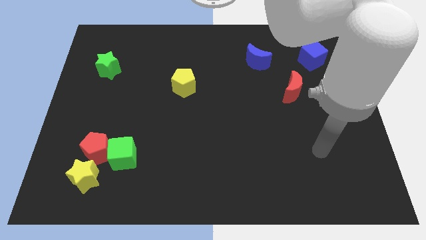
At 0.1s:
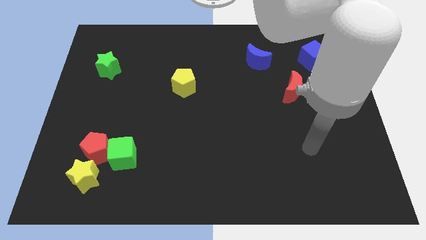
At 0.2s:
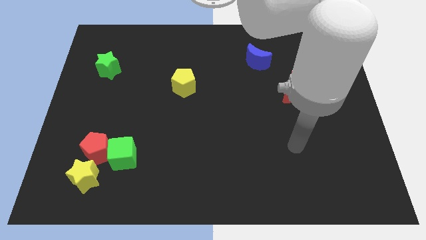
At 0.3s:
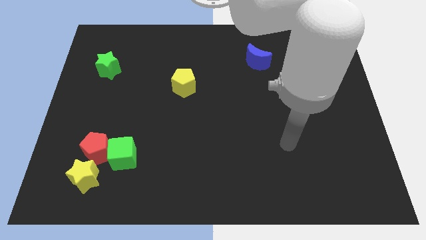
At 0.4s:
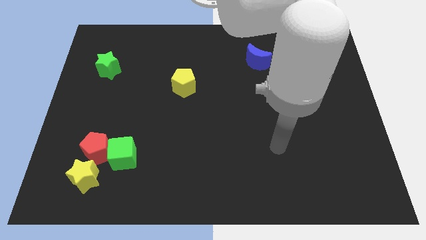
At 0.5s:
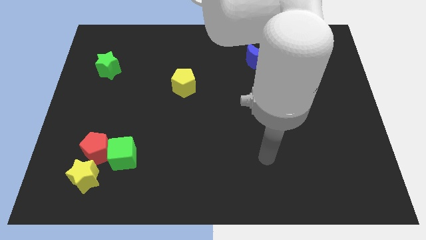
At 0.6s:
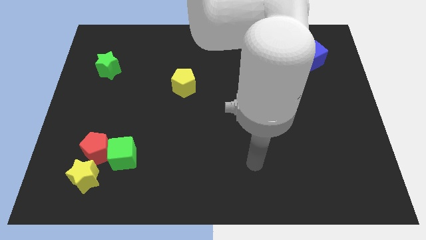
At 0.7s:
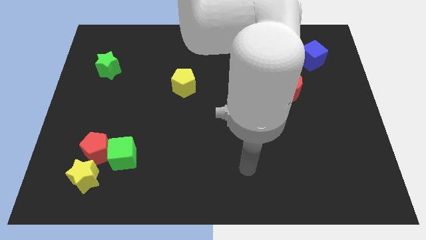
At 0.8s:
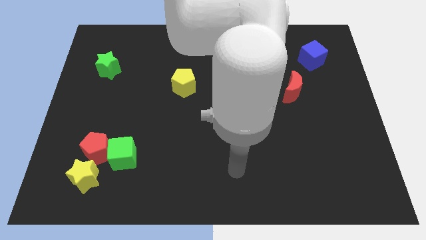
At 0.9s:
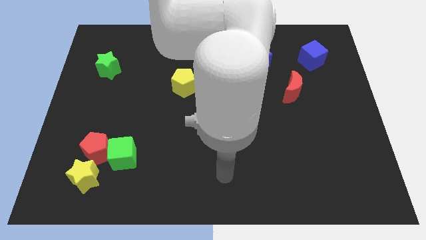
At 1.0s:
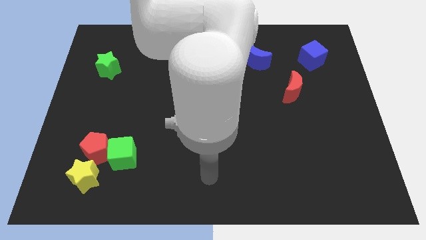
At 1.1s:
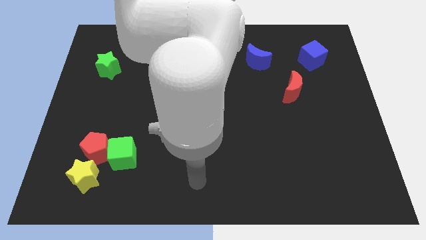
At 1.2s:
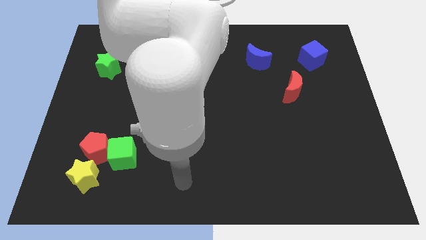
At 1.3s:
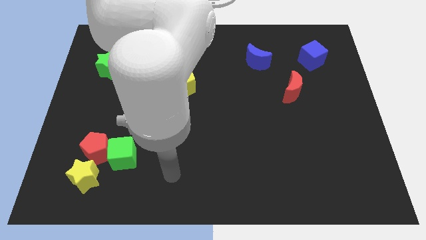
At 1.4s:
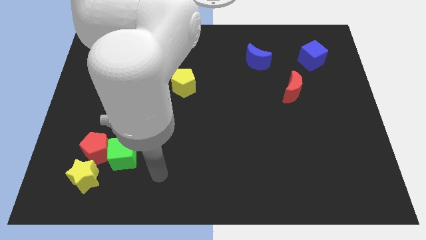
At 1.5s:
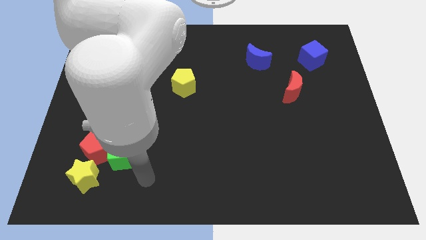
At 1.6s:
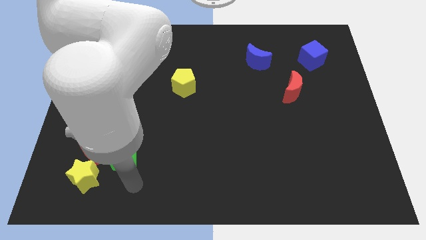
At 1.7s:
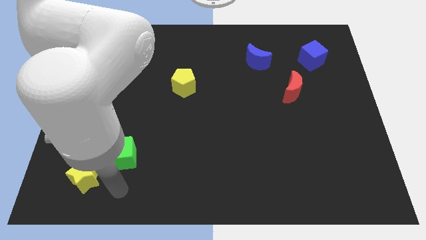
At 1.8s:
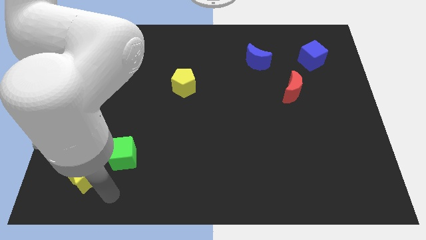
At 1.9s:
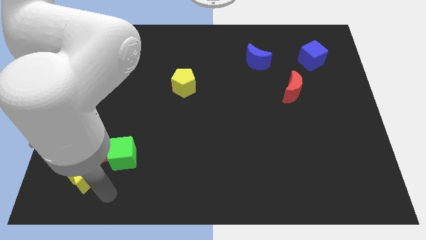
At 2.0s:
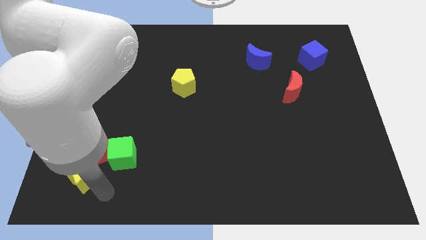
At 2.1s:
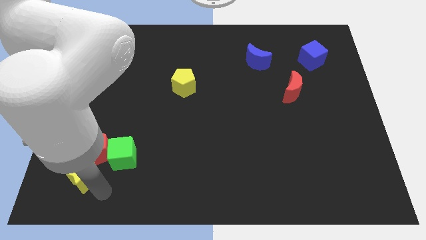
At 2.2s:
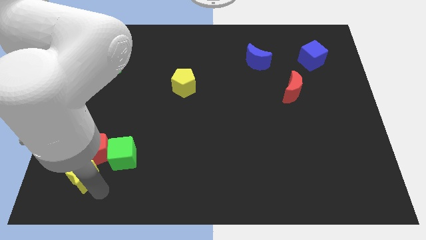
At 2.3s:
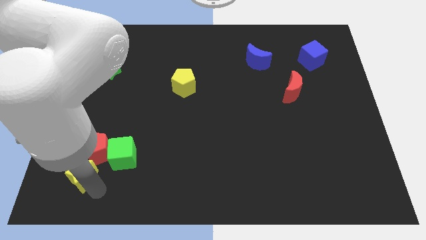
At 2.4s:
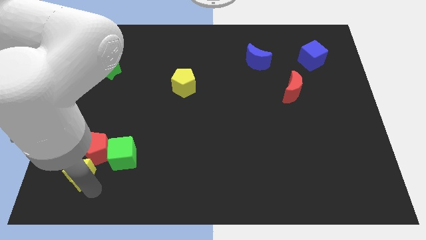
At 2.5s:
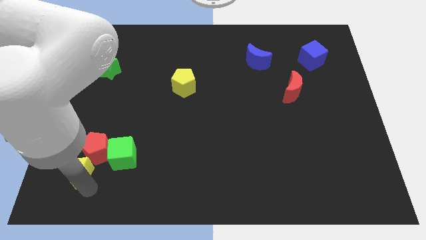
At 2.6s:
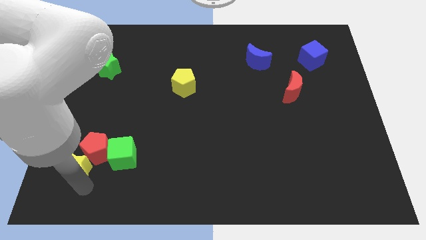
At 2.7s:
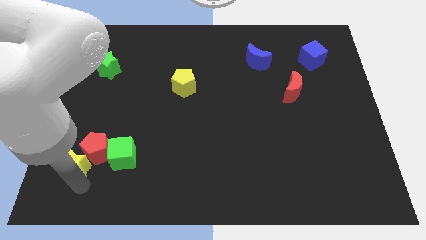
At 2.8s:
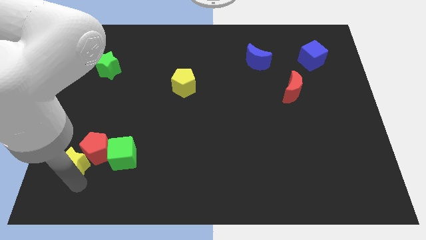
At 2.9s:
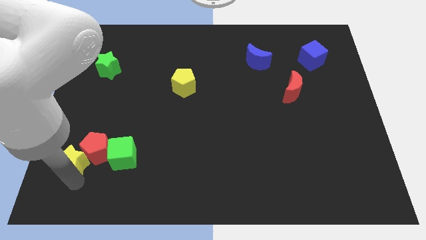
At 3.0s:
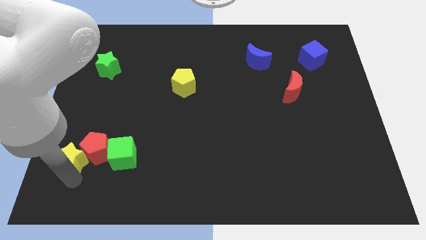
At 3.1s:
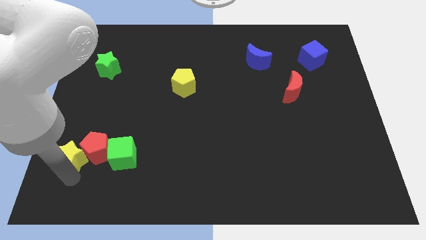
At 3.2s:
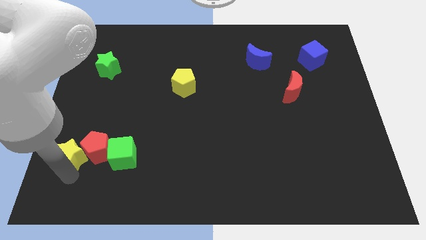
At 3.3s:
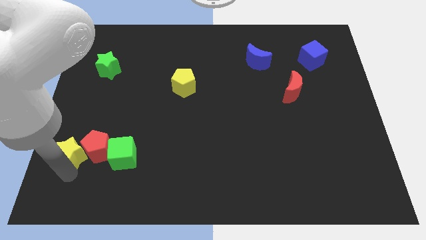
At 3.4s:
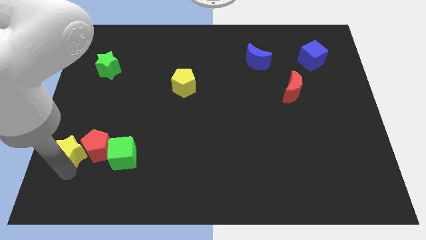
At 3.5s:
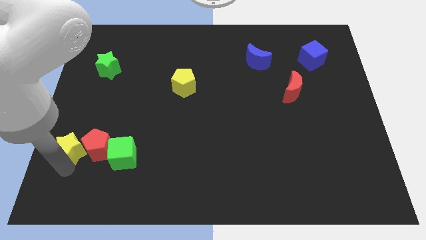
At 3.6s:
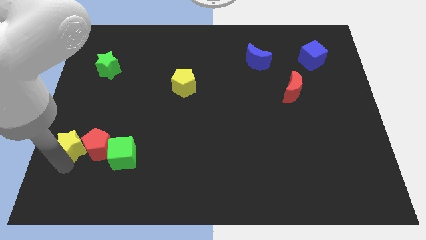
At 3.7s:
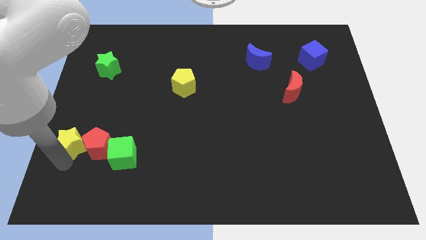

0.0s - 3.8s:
slightly move the yellow star up

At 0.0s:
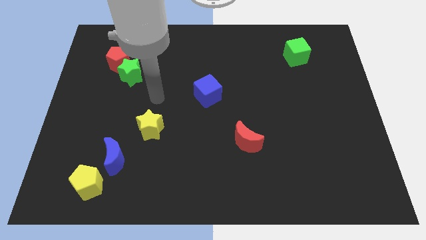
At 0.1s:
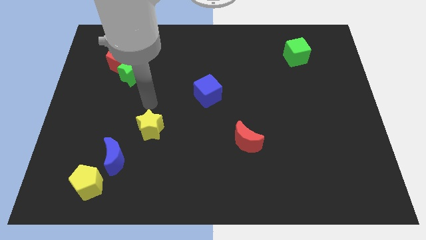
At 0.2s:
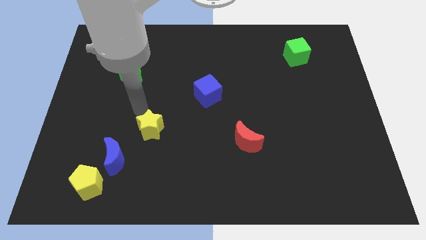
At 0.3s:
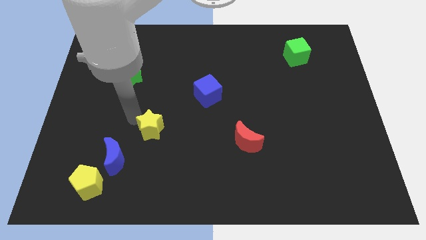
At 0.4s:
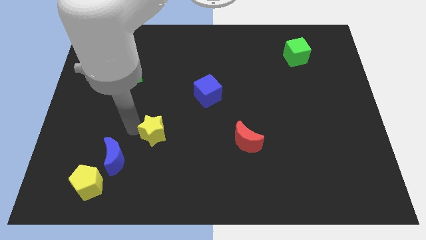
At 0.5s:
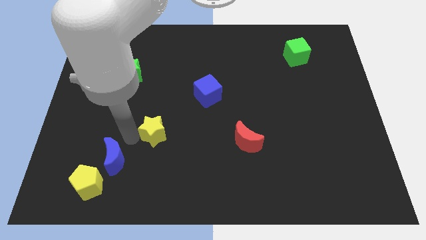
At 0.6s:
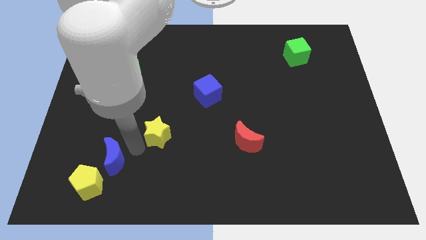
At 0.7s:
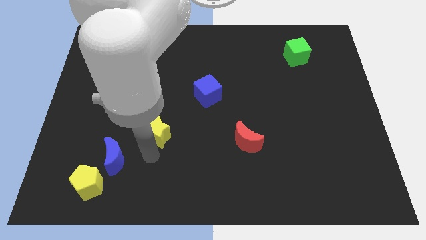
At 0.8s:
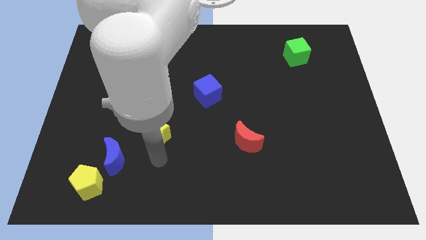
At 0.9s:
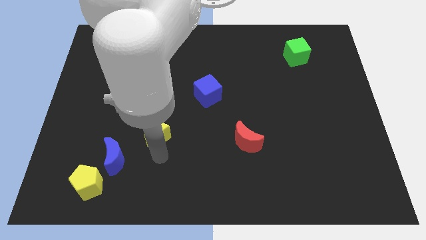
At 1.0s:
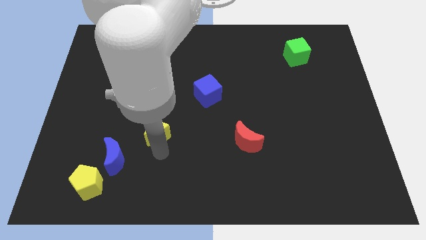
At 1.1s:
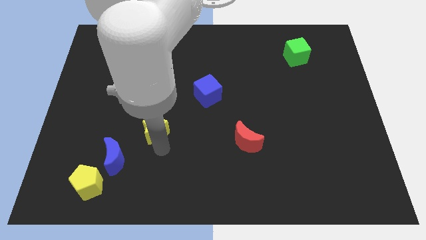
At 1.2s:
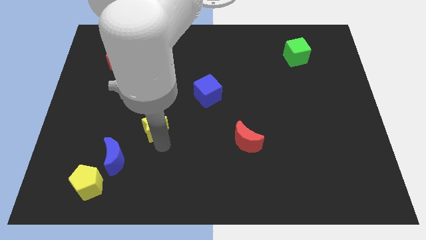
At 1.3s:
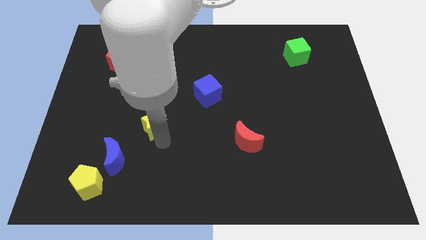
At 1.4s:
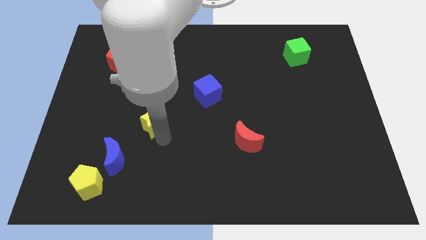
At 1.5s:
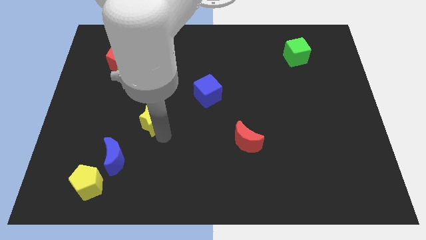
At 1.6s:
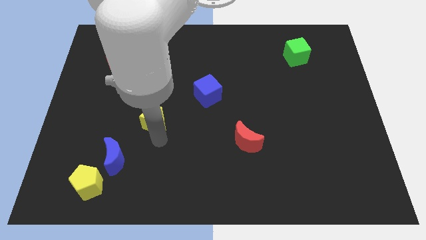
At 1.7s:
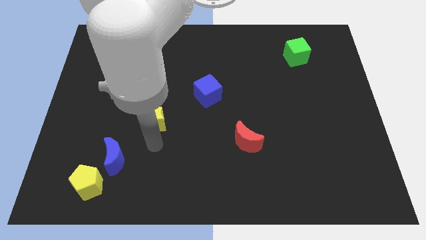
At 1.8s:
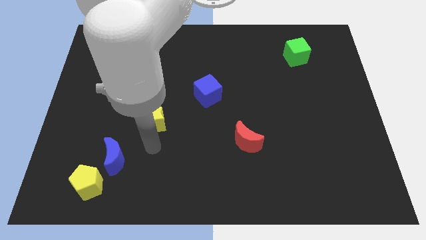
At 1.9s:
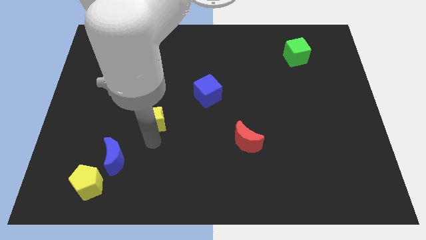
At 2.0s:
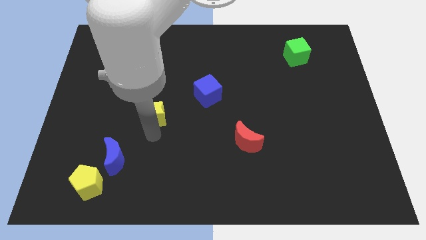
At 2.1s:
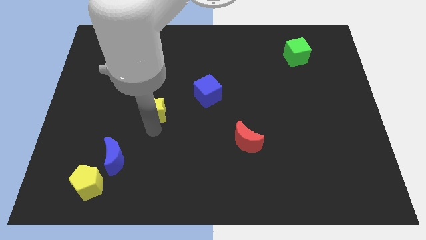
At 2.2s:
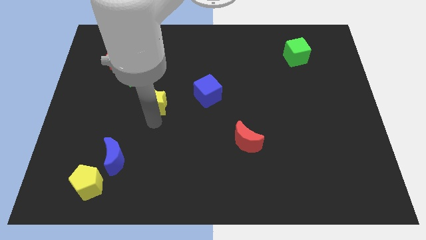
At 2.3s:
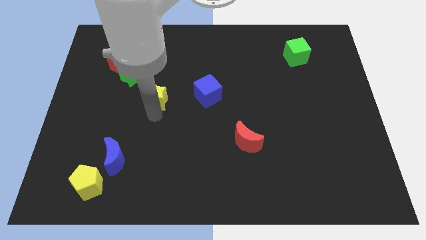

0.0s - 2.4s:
slightly move the yellow star upwards

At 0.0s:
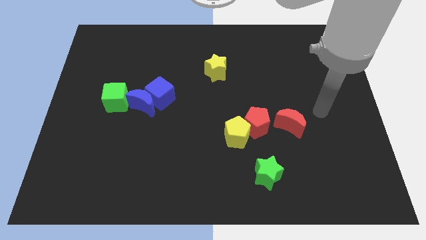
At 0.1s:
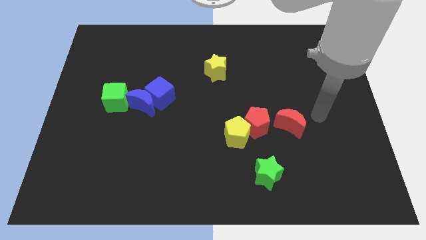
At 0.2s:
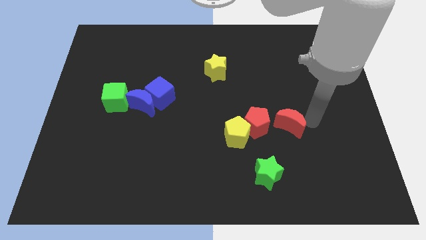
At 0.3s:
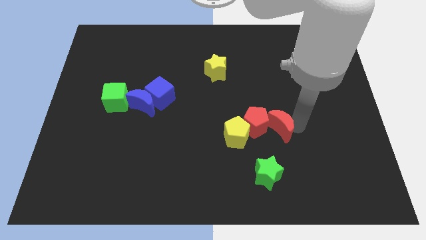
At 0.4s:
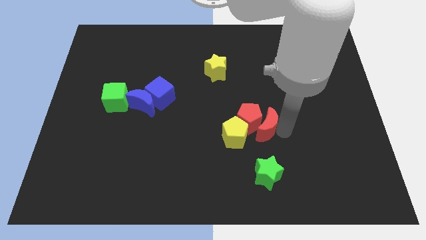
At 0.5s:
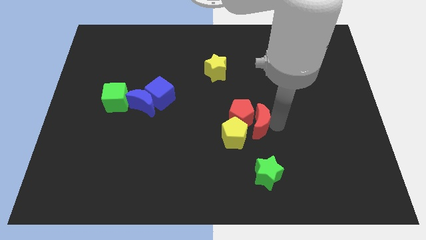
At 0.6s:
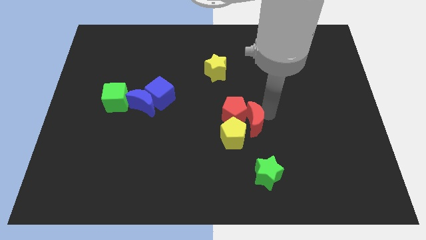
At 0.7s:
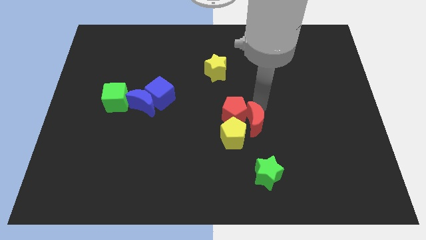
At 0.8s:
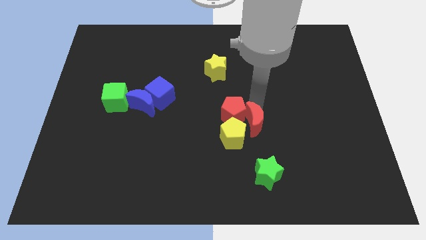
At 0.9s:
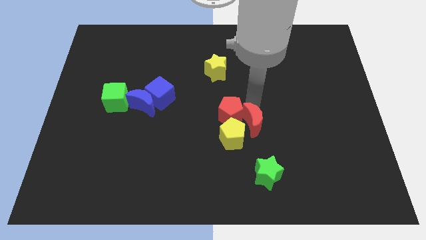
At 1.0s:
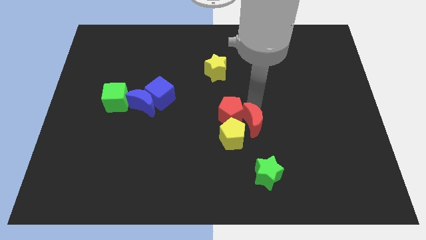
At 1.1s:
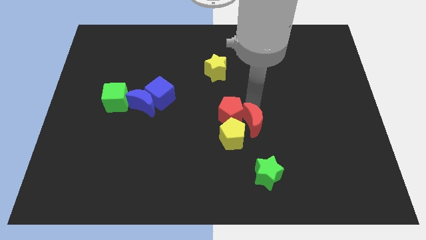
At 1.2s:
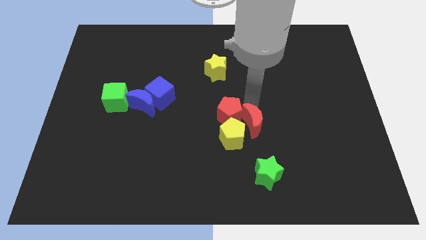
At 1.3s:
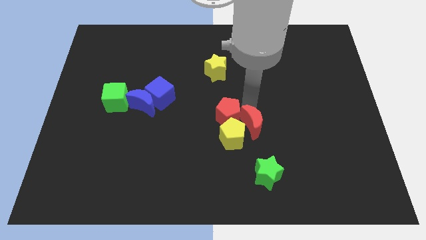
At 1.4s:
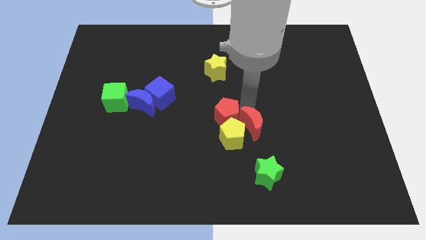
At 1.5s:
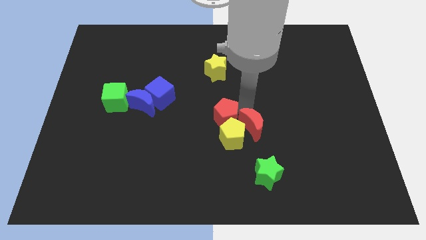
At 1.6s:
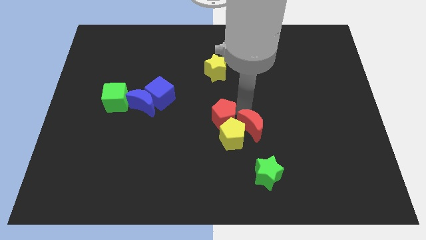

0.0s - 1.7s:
move the red pentagon left a little bit
